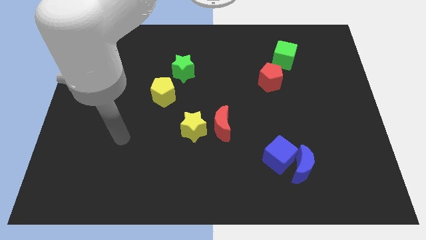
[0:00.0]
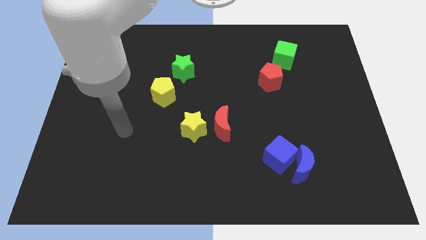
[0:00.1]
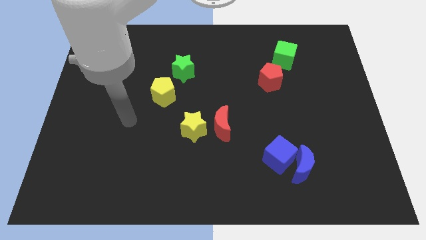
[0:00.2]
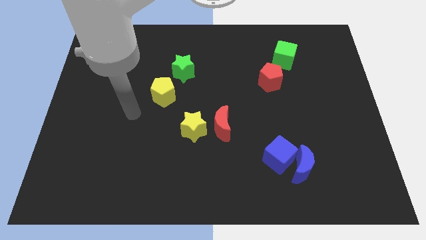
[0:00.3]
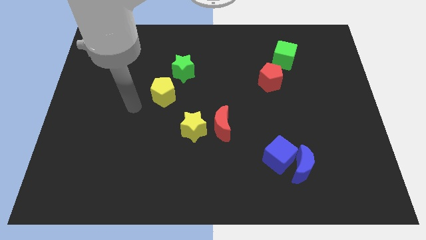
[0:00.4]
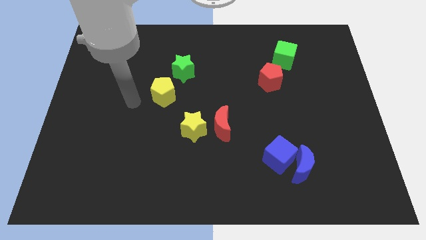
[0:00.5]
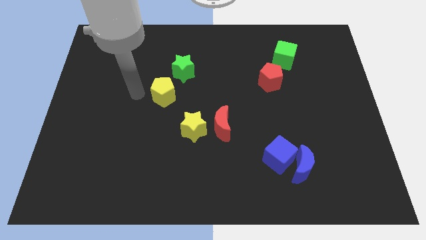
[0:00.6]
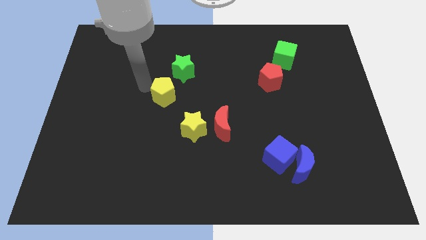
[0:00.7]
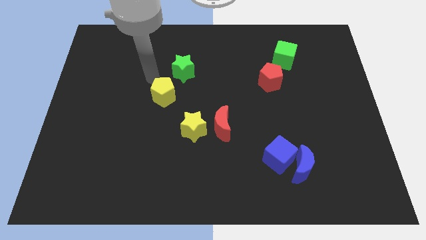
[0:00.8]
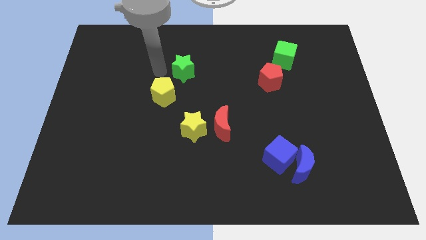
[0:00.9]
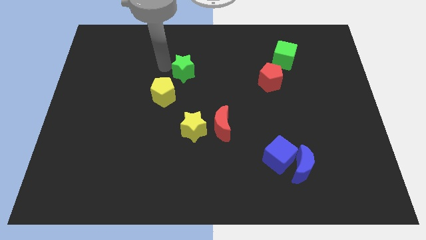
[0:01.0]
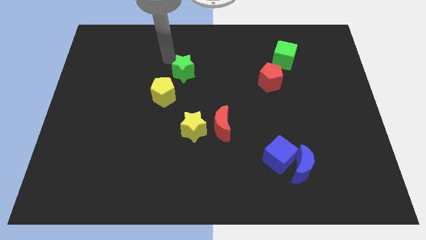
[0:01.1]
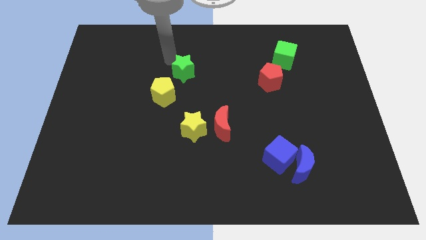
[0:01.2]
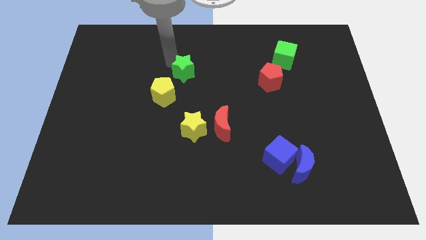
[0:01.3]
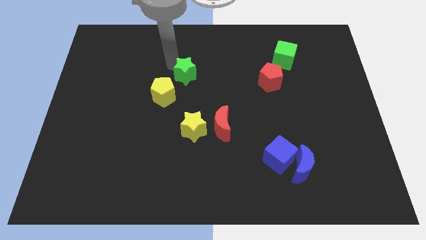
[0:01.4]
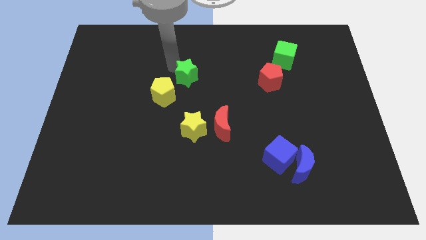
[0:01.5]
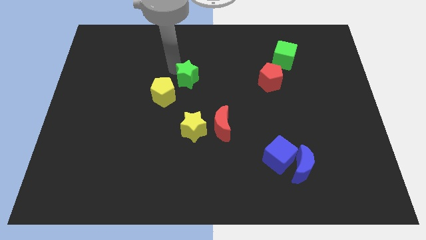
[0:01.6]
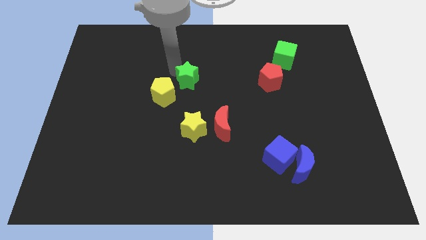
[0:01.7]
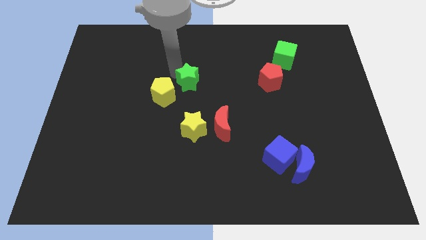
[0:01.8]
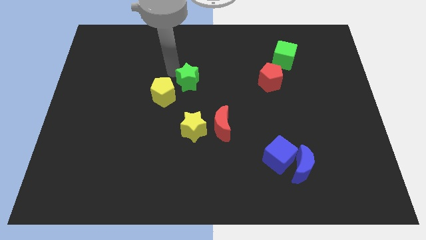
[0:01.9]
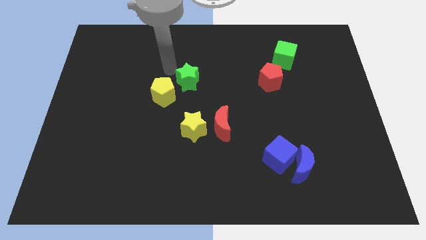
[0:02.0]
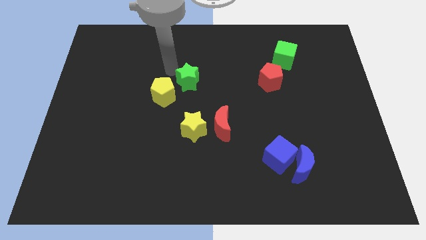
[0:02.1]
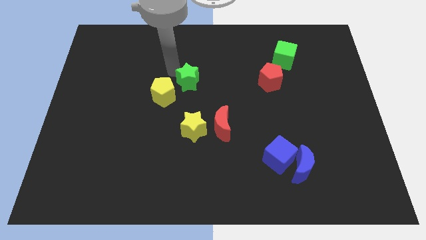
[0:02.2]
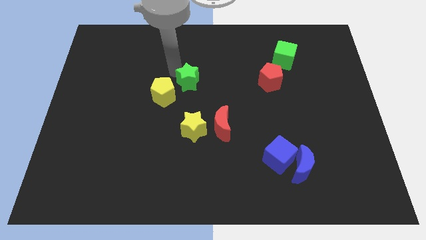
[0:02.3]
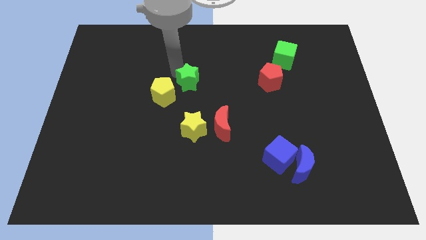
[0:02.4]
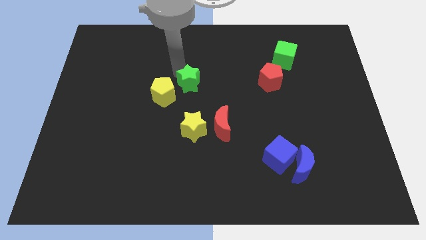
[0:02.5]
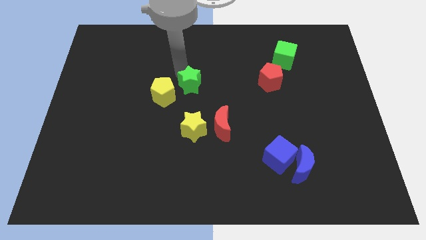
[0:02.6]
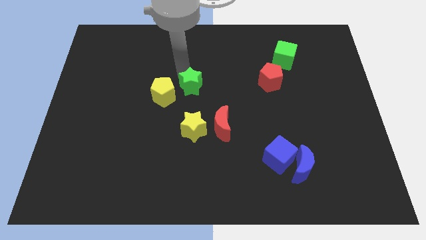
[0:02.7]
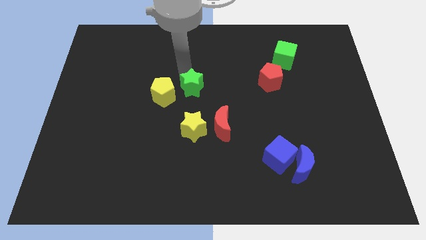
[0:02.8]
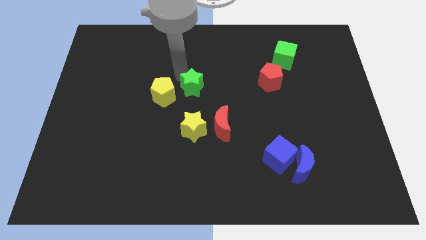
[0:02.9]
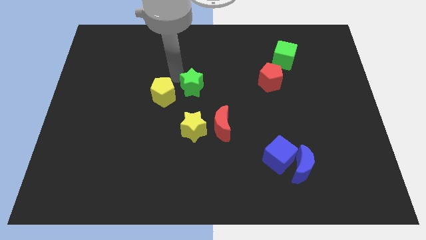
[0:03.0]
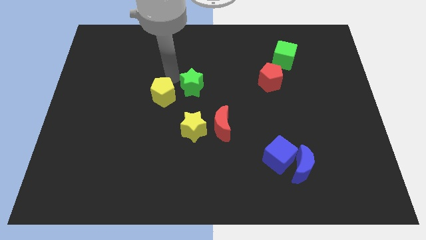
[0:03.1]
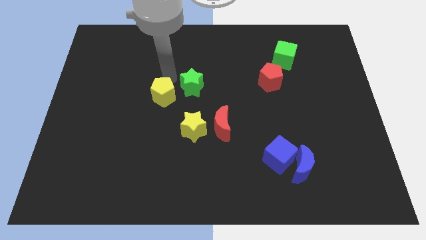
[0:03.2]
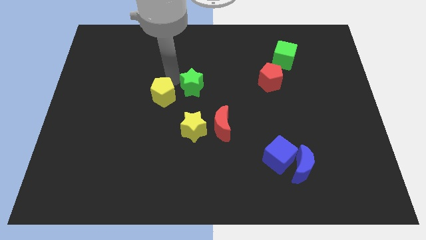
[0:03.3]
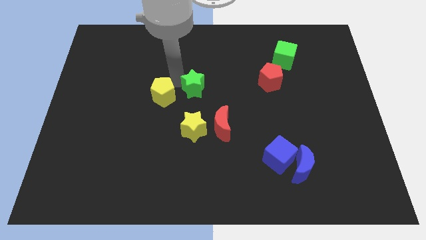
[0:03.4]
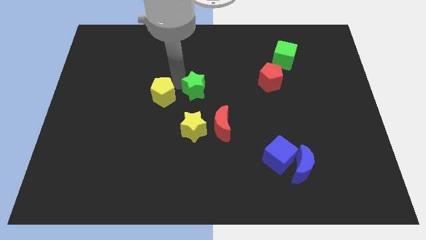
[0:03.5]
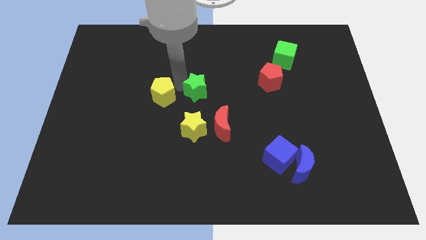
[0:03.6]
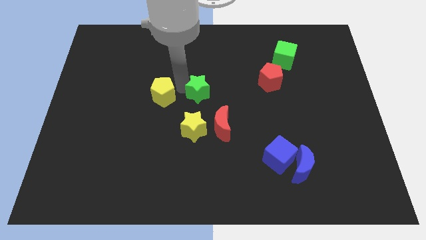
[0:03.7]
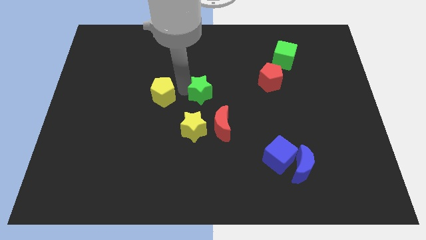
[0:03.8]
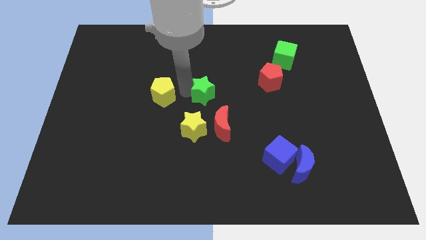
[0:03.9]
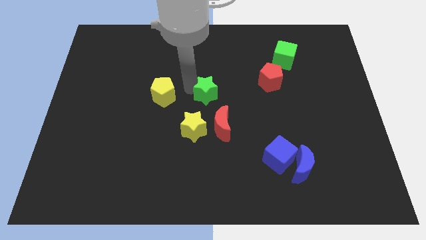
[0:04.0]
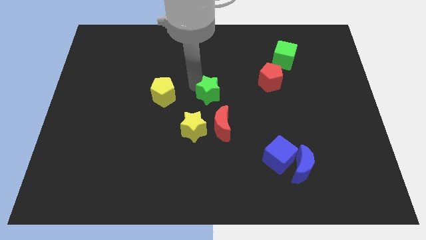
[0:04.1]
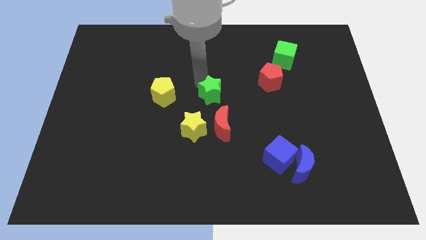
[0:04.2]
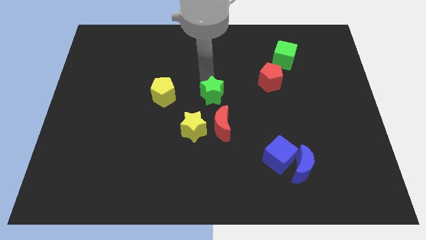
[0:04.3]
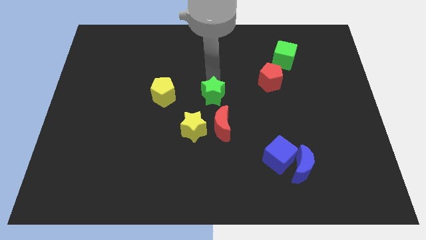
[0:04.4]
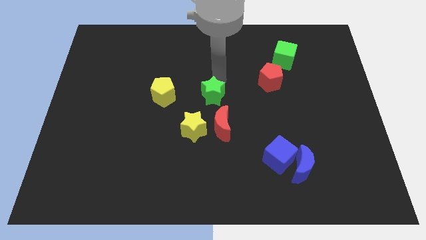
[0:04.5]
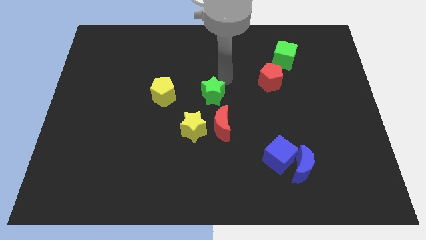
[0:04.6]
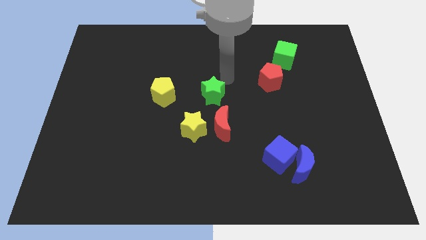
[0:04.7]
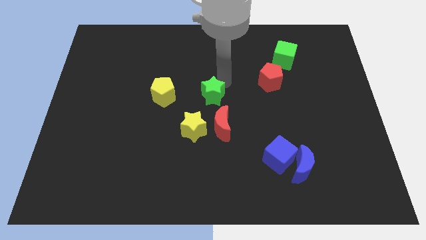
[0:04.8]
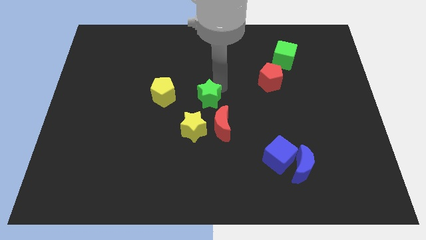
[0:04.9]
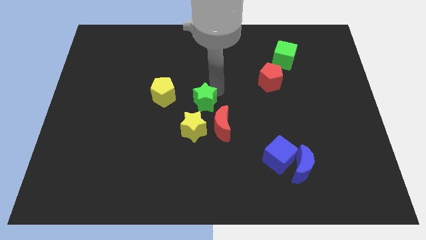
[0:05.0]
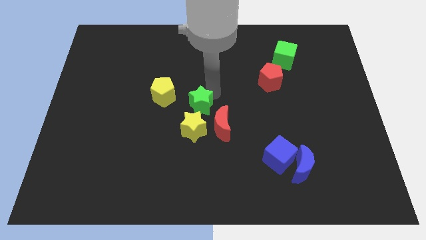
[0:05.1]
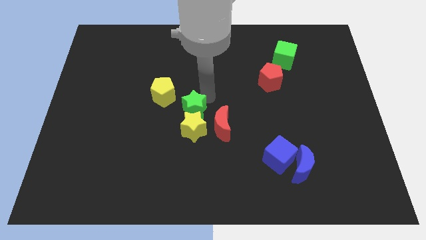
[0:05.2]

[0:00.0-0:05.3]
push the green star next to the yellow star

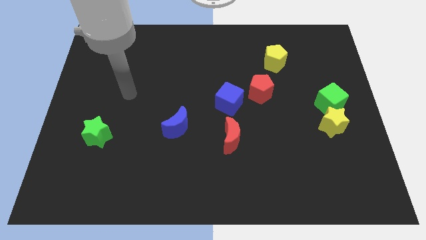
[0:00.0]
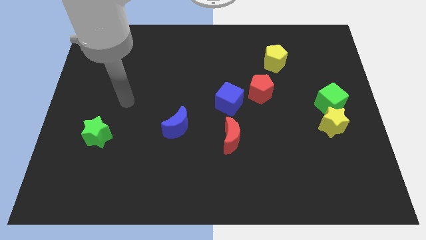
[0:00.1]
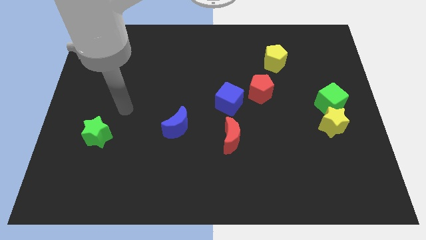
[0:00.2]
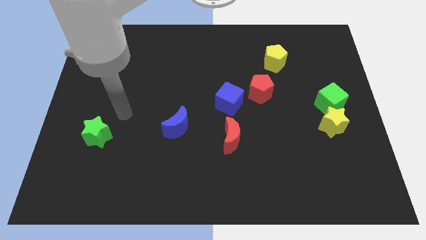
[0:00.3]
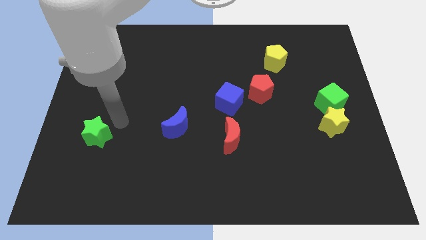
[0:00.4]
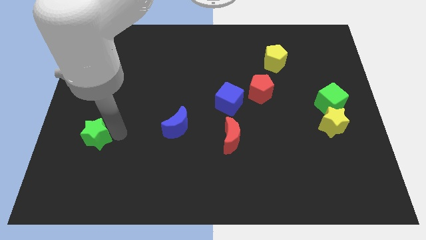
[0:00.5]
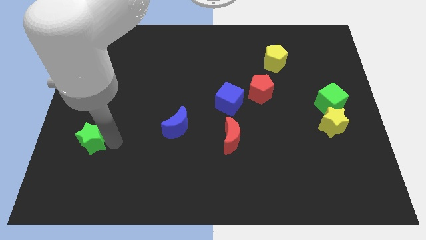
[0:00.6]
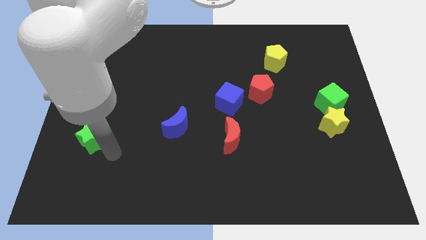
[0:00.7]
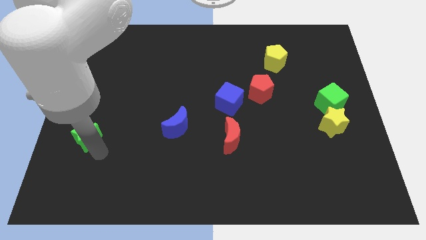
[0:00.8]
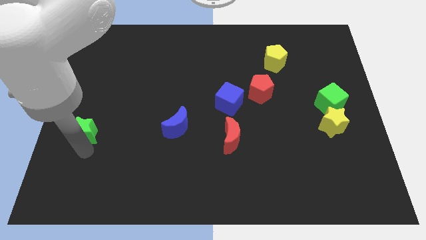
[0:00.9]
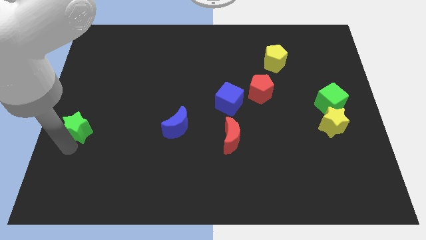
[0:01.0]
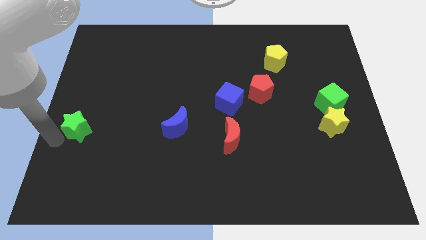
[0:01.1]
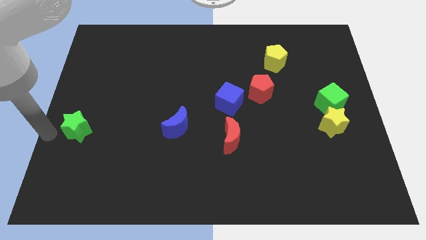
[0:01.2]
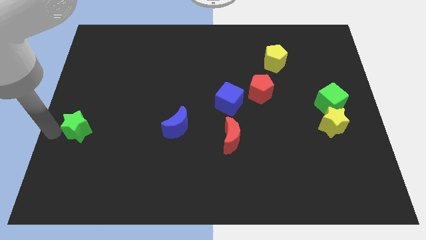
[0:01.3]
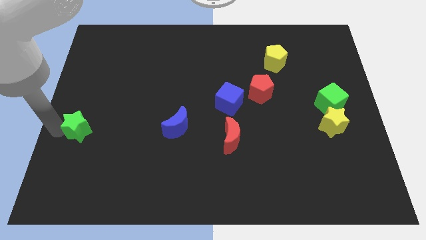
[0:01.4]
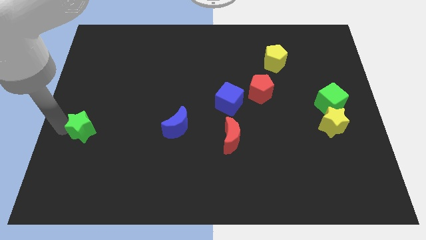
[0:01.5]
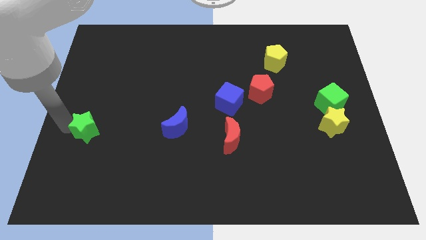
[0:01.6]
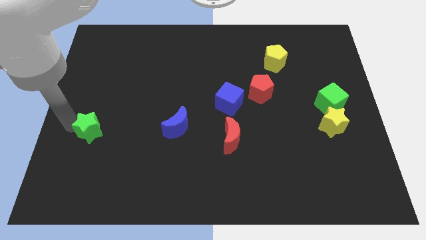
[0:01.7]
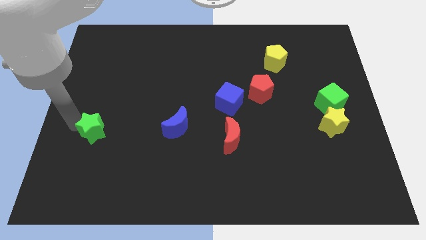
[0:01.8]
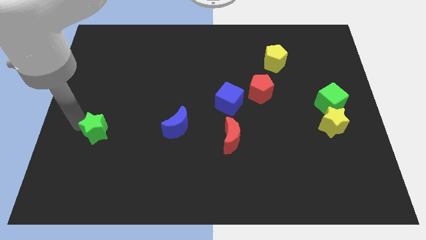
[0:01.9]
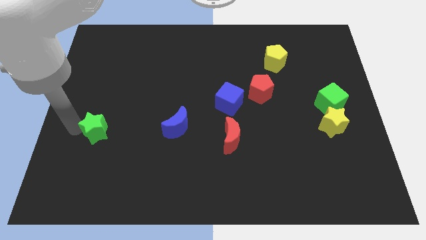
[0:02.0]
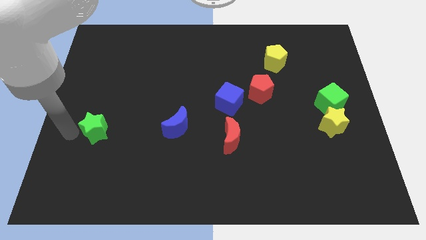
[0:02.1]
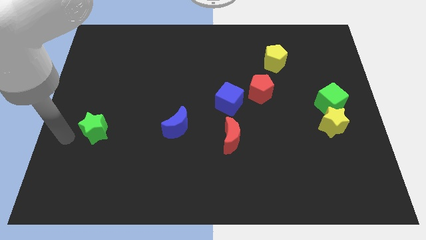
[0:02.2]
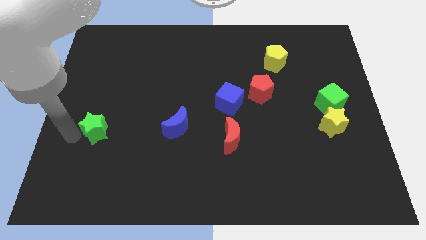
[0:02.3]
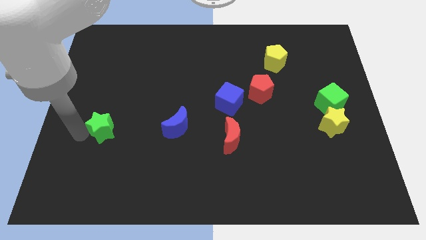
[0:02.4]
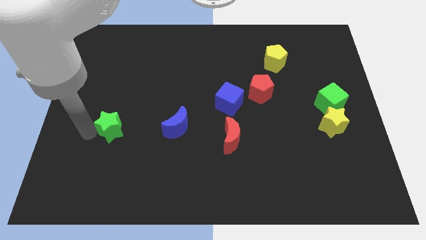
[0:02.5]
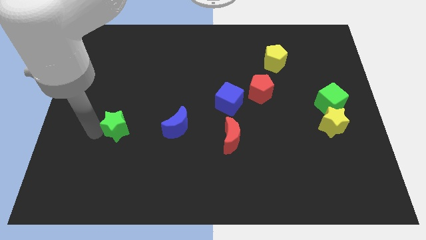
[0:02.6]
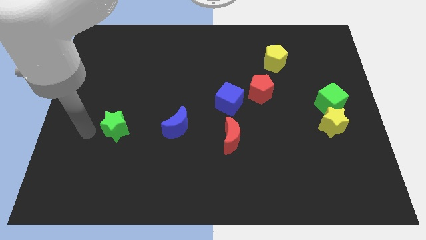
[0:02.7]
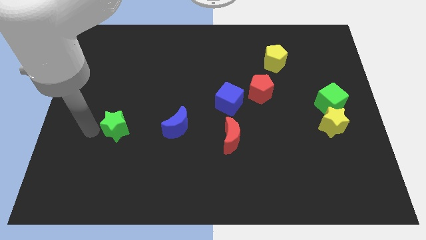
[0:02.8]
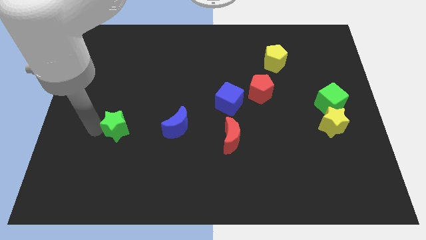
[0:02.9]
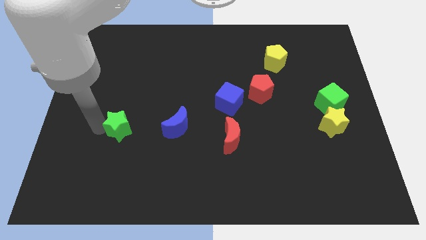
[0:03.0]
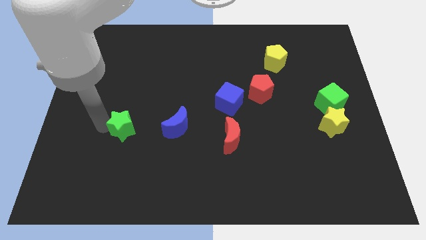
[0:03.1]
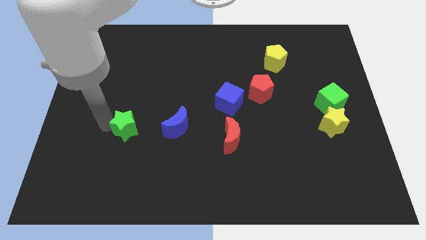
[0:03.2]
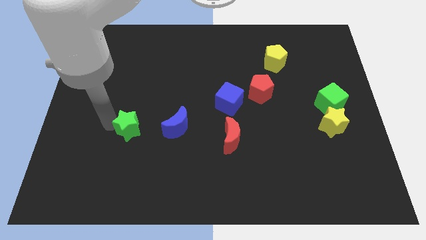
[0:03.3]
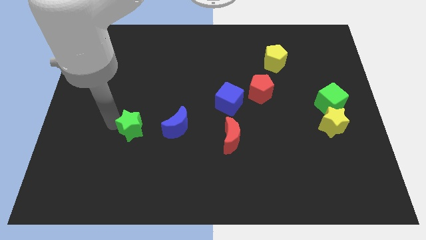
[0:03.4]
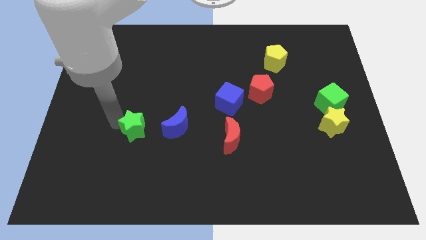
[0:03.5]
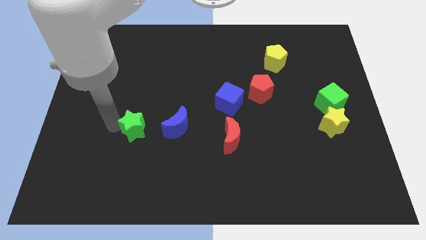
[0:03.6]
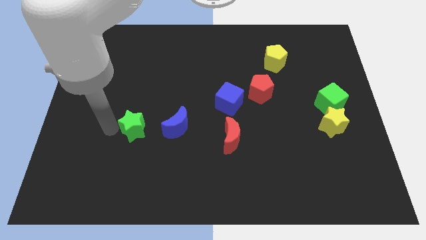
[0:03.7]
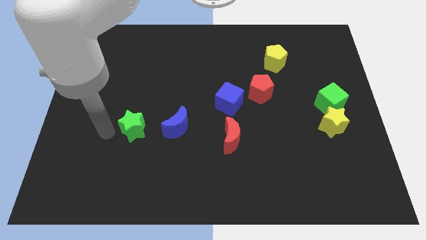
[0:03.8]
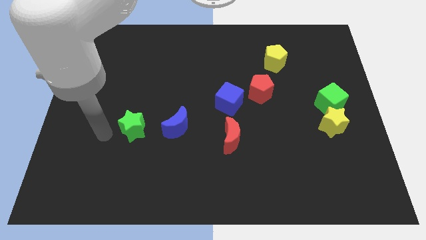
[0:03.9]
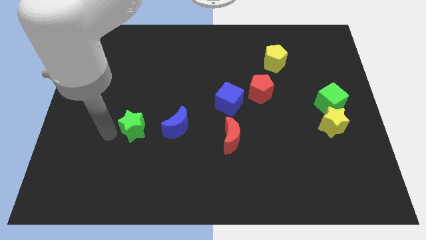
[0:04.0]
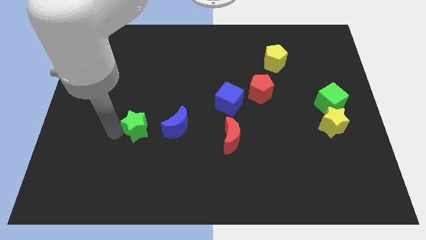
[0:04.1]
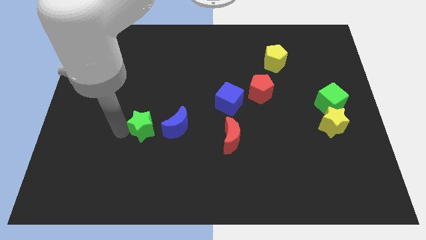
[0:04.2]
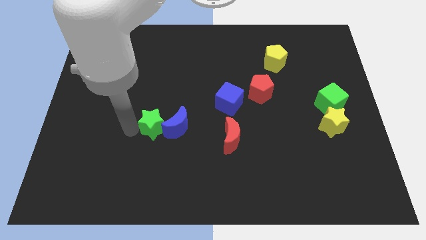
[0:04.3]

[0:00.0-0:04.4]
move the green star to the blue moon
